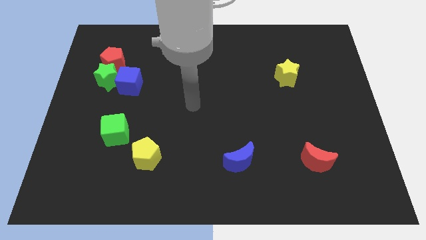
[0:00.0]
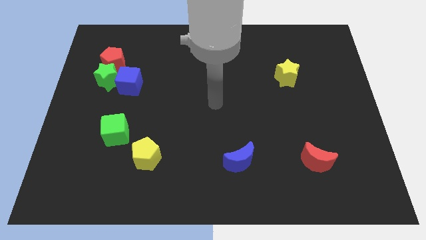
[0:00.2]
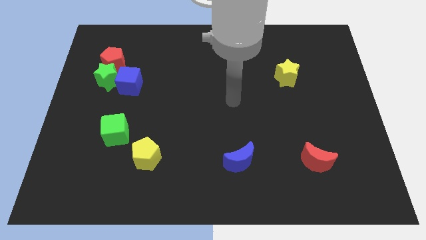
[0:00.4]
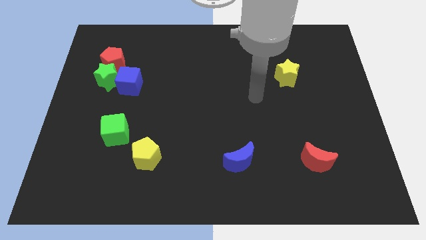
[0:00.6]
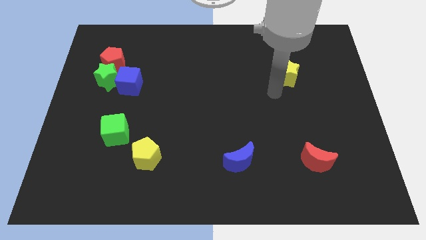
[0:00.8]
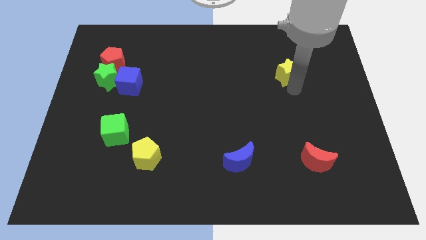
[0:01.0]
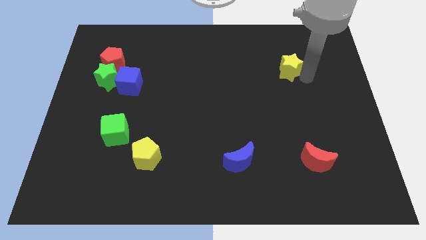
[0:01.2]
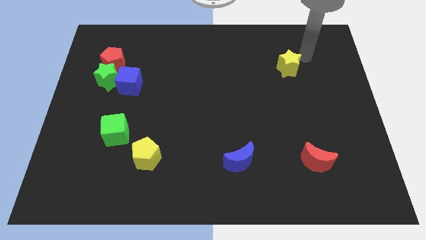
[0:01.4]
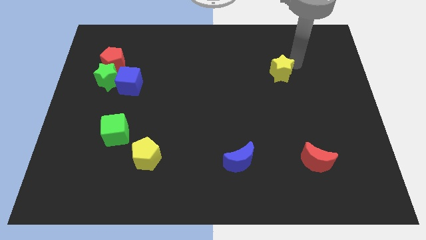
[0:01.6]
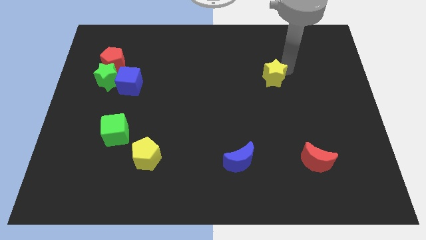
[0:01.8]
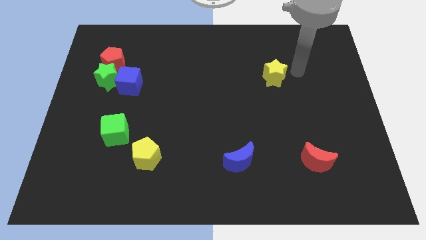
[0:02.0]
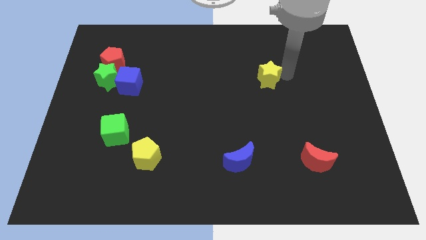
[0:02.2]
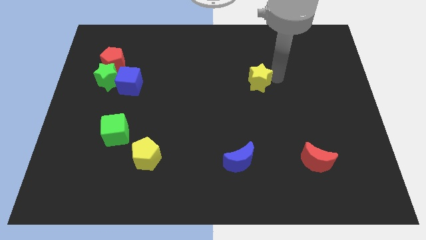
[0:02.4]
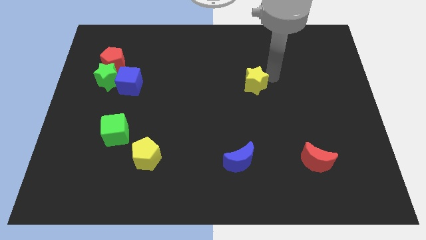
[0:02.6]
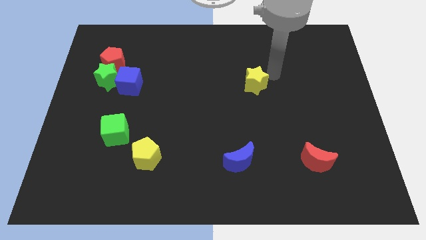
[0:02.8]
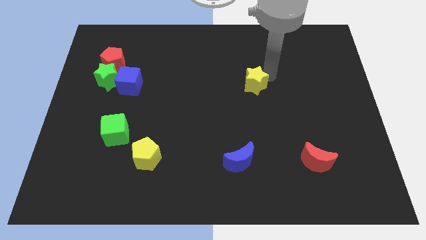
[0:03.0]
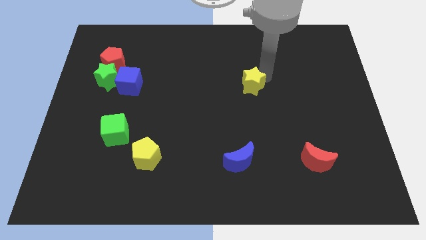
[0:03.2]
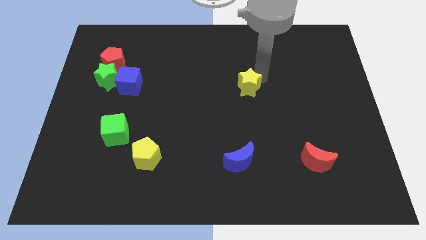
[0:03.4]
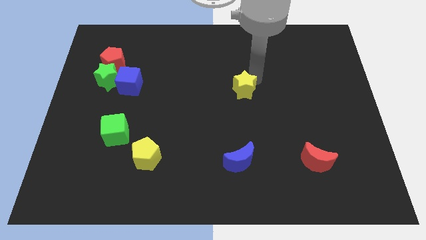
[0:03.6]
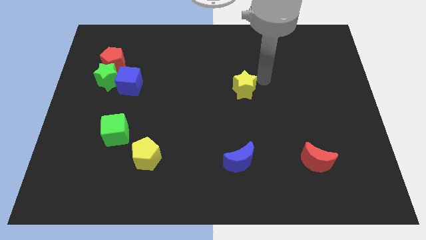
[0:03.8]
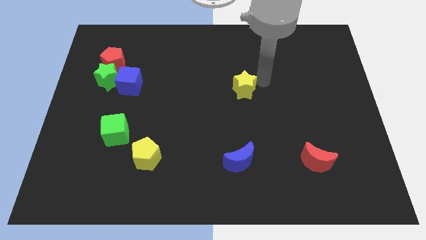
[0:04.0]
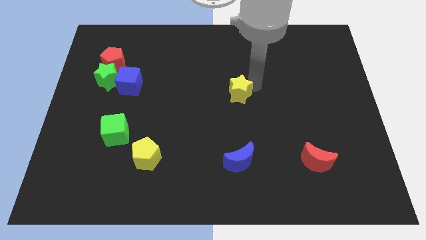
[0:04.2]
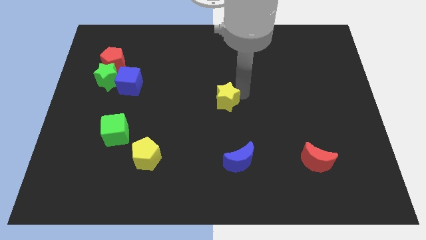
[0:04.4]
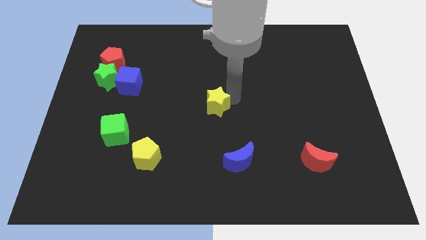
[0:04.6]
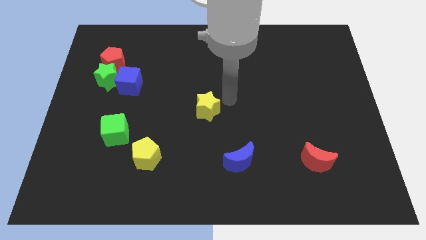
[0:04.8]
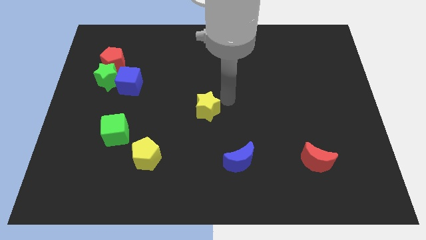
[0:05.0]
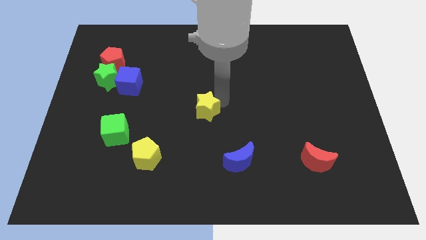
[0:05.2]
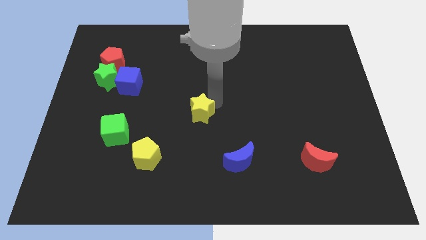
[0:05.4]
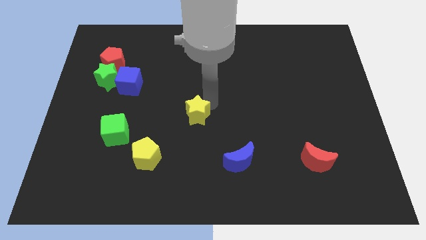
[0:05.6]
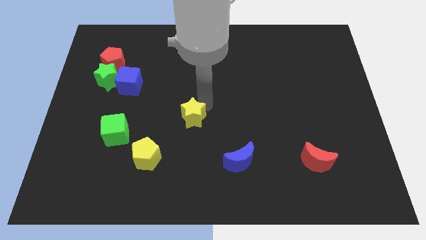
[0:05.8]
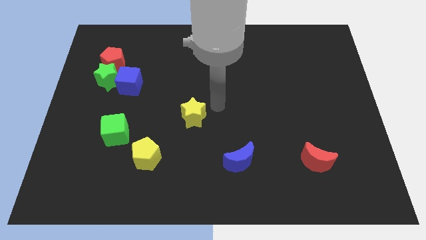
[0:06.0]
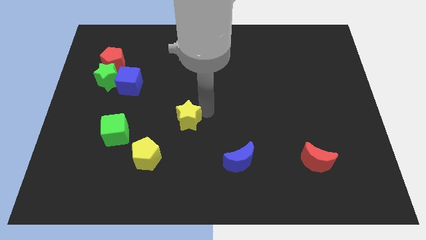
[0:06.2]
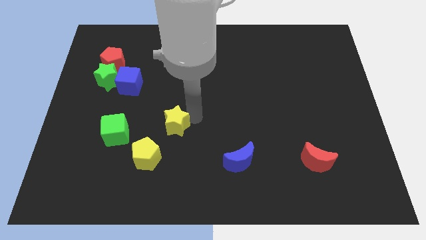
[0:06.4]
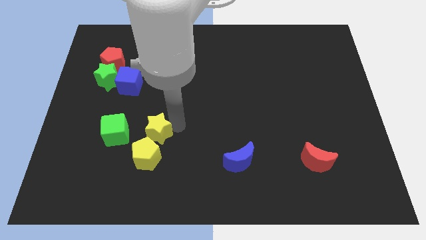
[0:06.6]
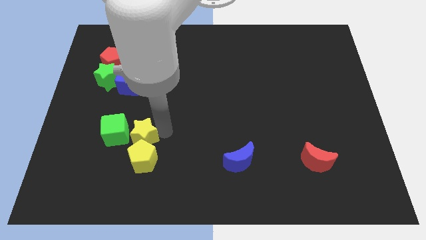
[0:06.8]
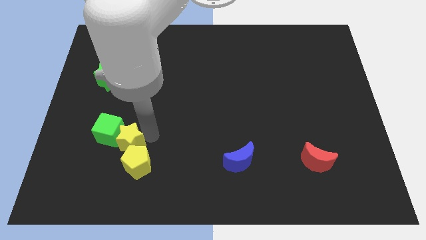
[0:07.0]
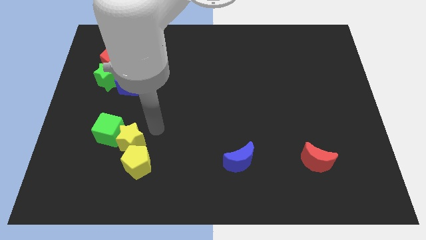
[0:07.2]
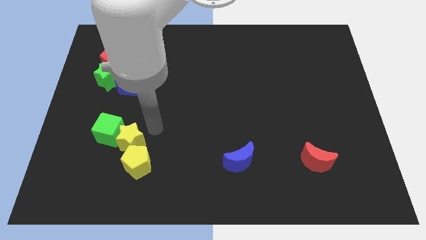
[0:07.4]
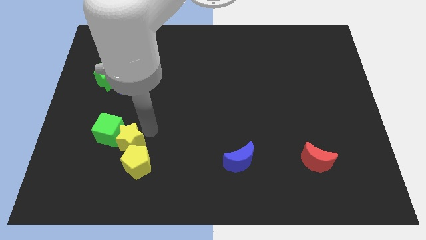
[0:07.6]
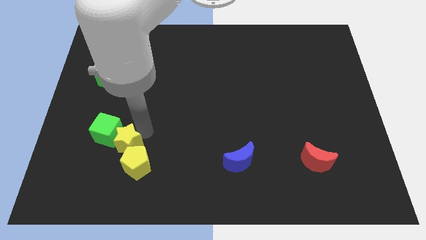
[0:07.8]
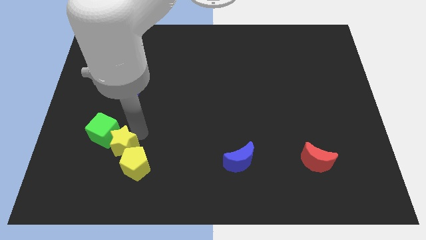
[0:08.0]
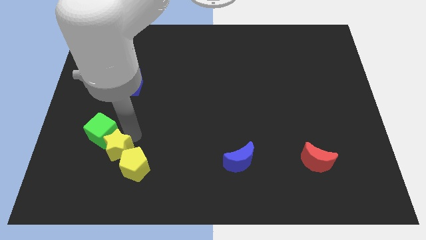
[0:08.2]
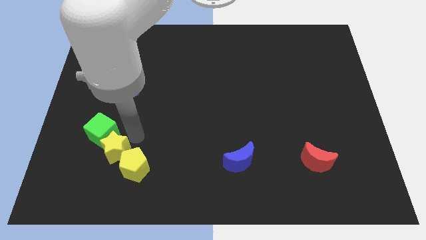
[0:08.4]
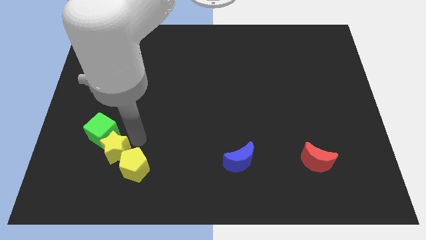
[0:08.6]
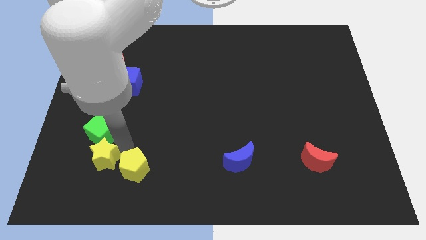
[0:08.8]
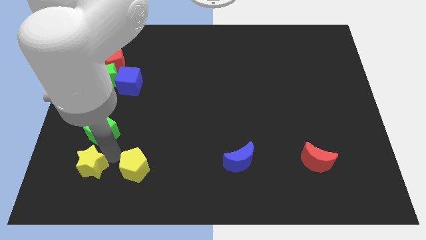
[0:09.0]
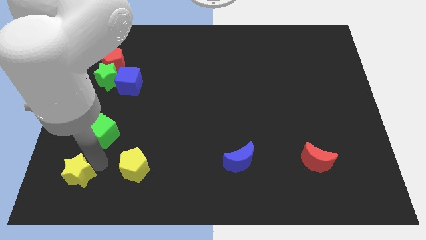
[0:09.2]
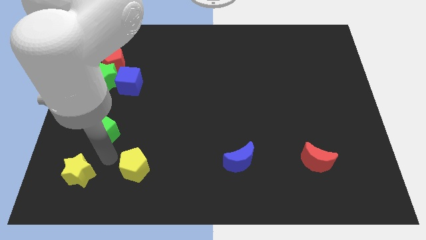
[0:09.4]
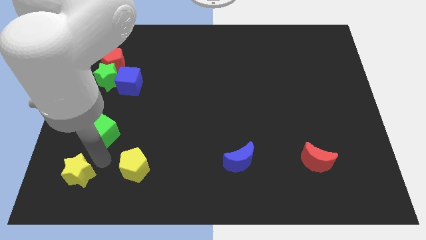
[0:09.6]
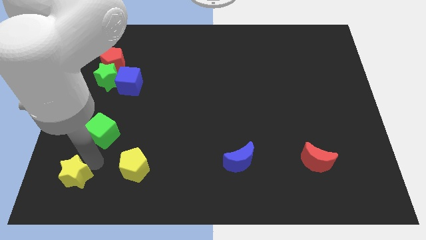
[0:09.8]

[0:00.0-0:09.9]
put the yellow star to the bottom left

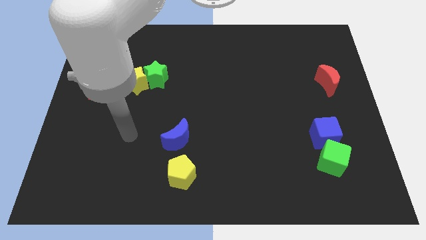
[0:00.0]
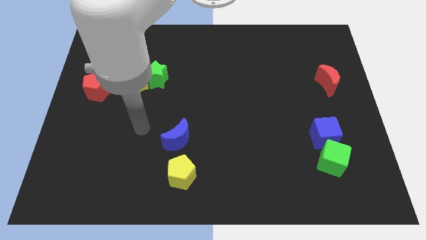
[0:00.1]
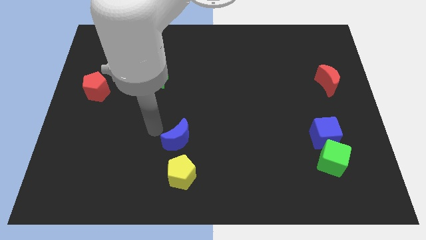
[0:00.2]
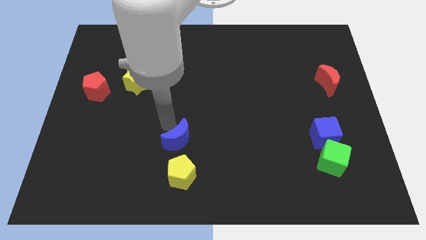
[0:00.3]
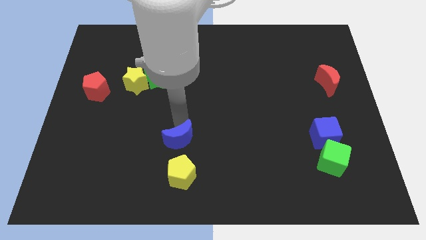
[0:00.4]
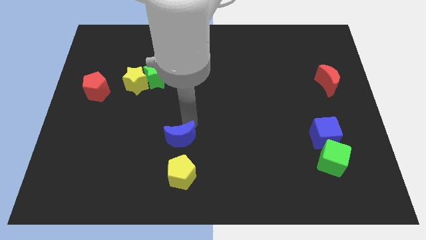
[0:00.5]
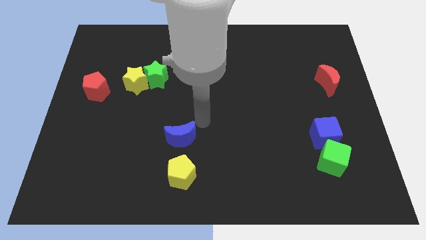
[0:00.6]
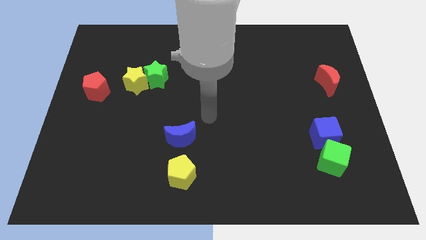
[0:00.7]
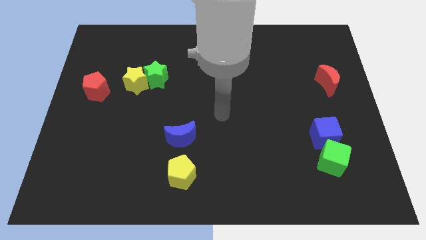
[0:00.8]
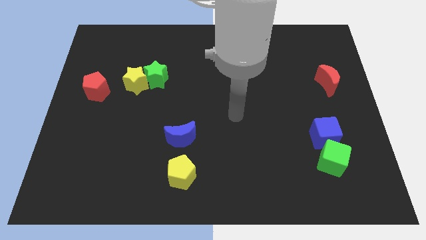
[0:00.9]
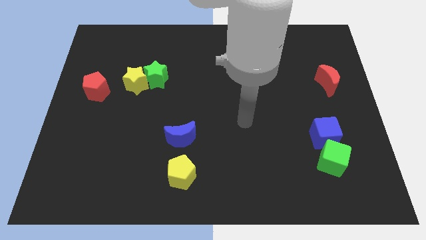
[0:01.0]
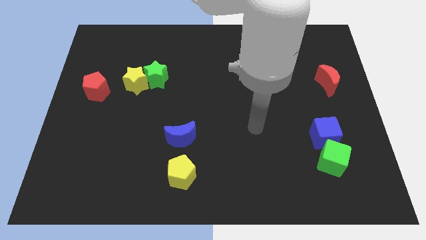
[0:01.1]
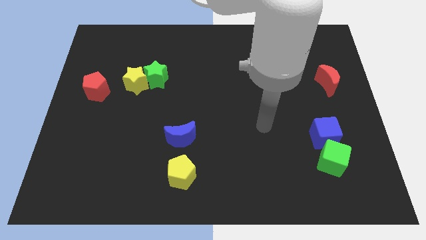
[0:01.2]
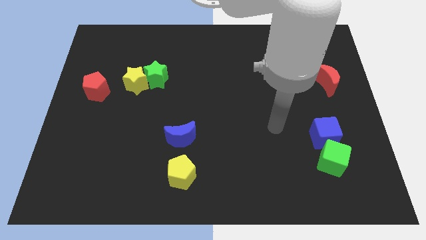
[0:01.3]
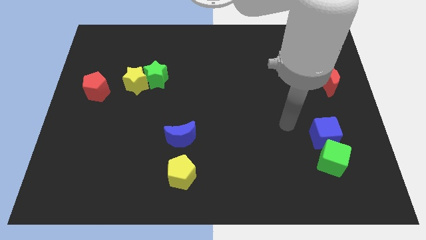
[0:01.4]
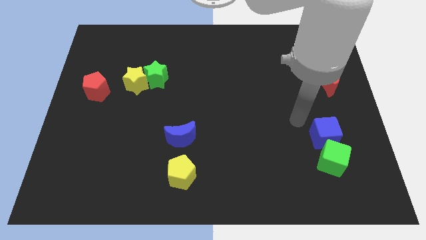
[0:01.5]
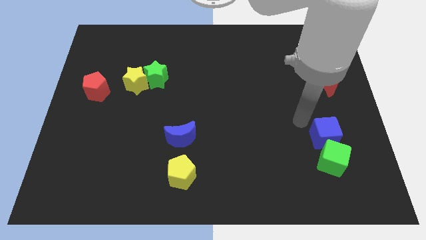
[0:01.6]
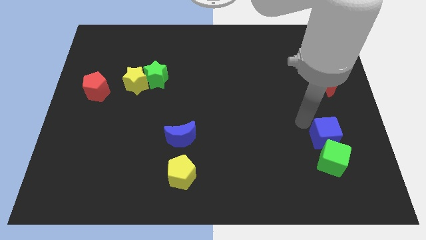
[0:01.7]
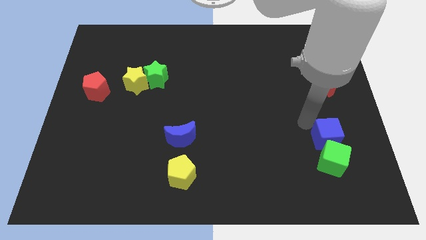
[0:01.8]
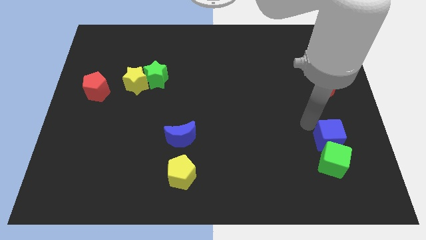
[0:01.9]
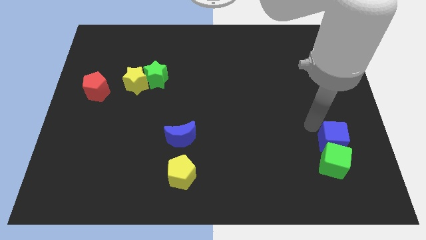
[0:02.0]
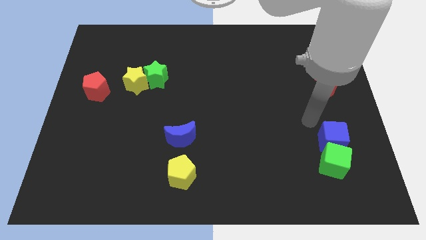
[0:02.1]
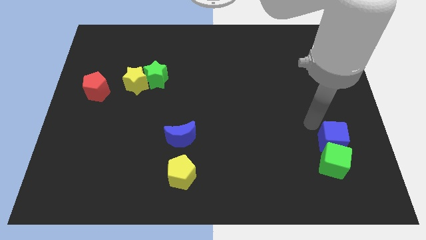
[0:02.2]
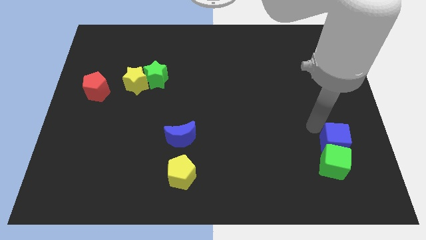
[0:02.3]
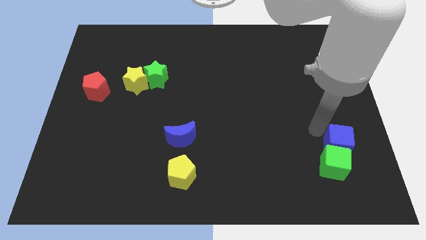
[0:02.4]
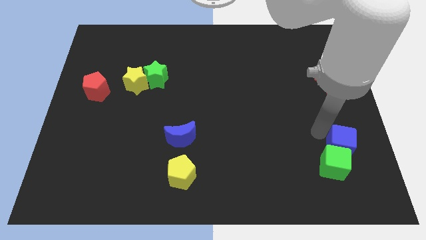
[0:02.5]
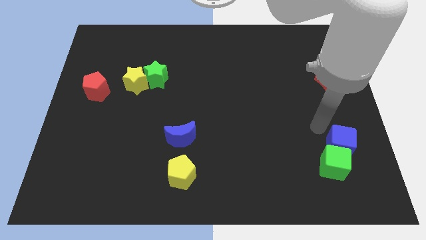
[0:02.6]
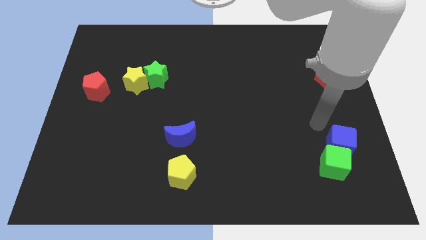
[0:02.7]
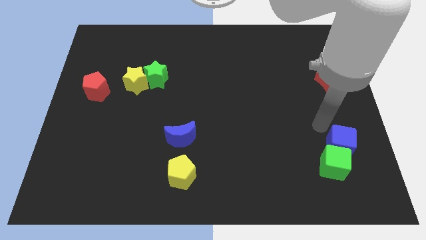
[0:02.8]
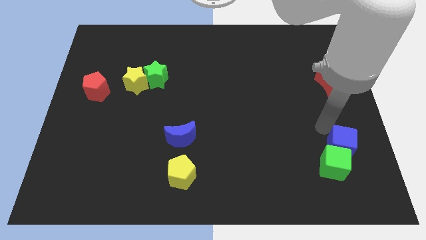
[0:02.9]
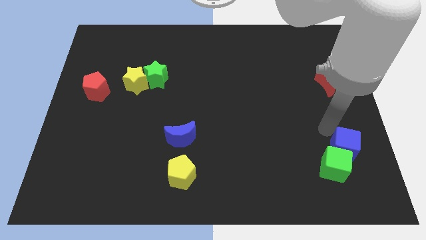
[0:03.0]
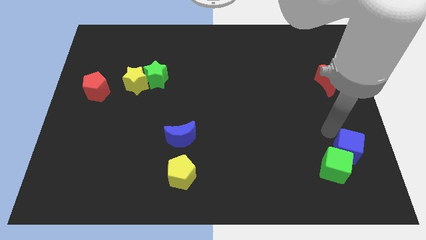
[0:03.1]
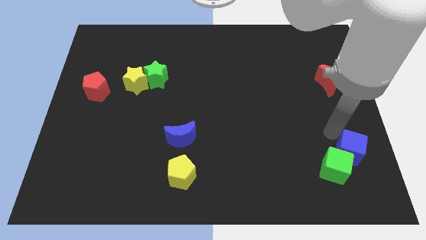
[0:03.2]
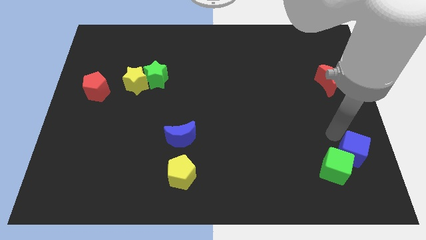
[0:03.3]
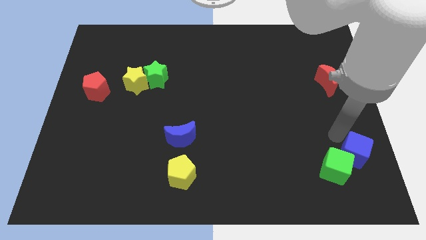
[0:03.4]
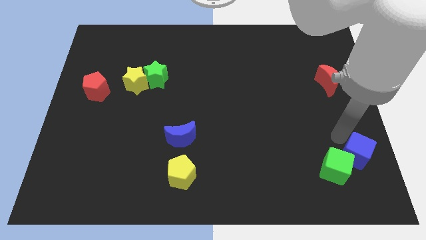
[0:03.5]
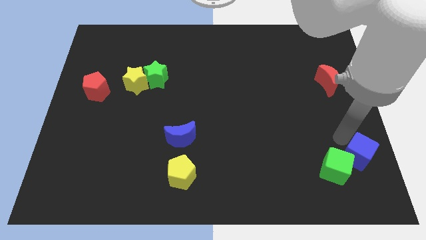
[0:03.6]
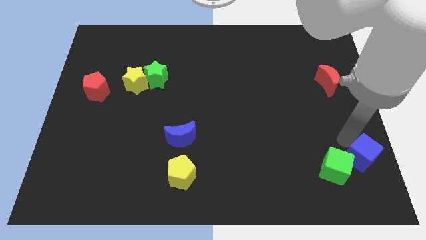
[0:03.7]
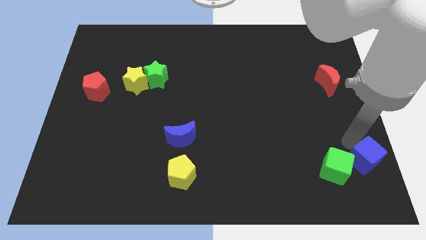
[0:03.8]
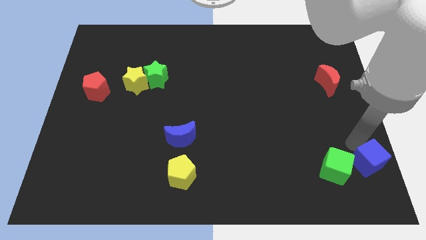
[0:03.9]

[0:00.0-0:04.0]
slide the blue cube to the bottom right of the board
